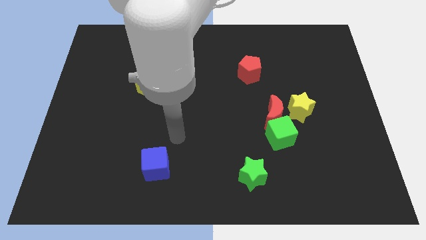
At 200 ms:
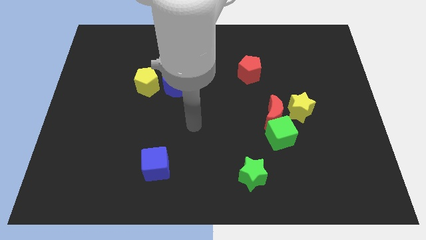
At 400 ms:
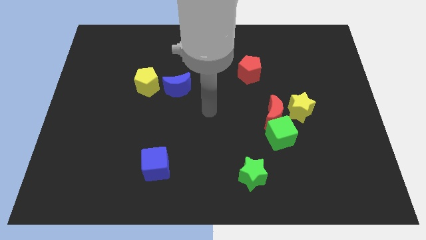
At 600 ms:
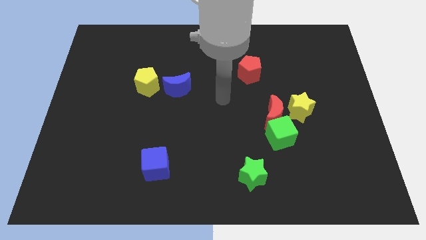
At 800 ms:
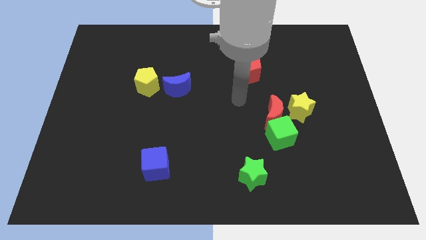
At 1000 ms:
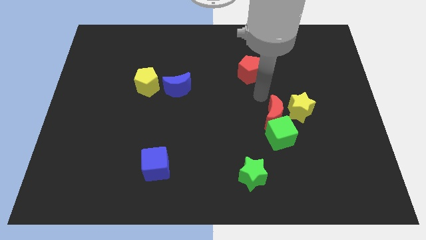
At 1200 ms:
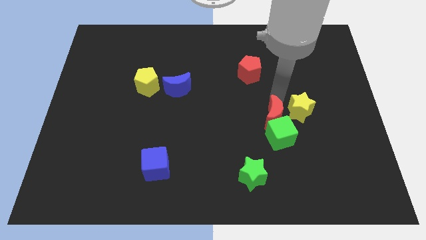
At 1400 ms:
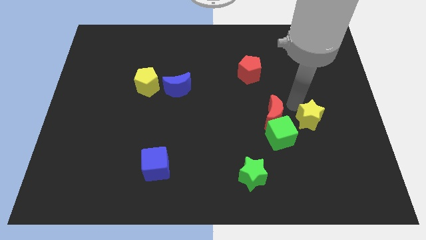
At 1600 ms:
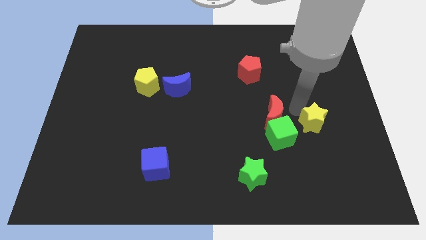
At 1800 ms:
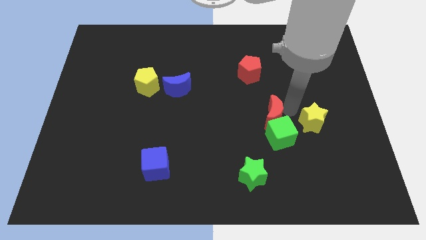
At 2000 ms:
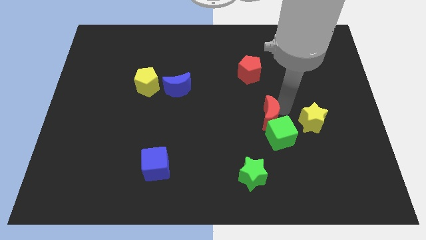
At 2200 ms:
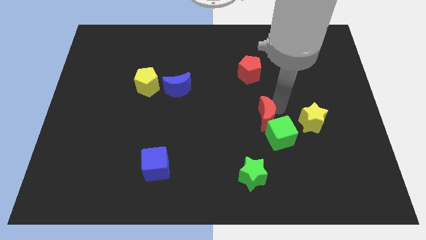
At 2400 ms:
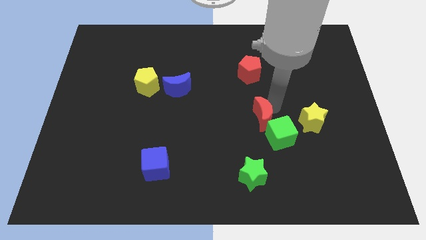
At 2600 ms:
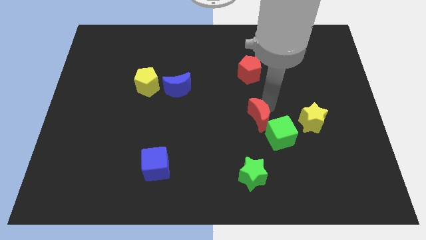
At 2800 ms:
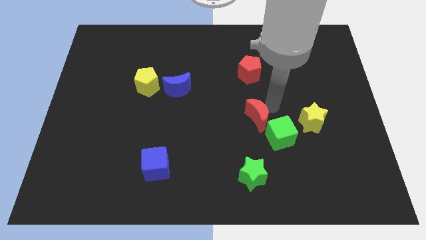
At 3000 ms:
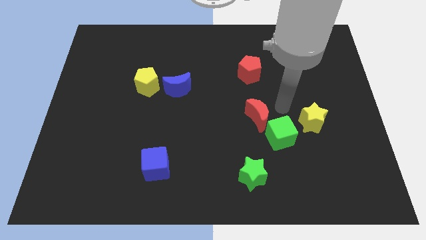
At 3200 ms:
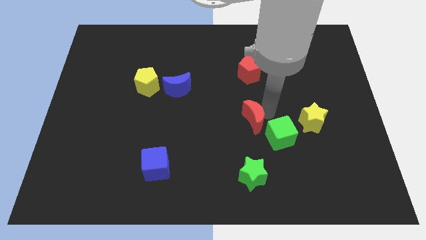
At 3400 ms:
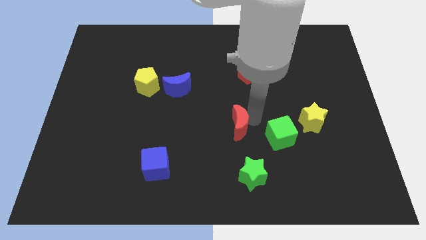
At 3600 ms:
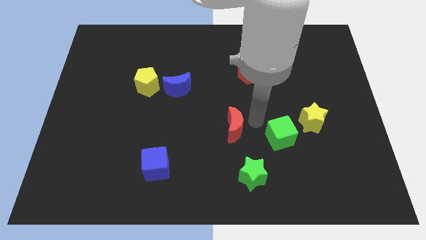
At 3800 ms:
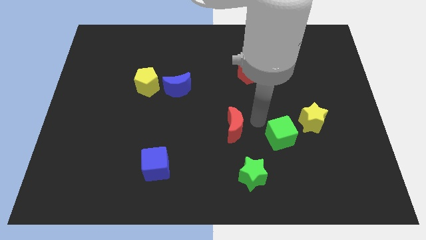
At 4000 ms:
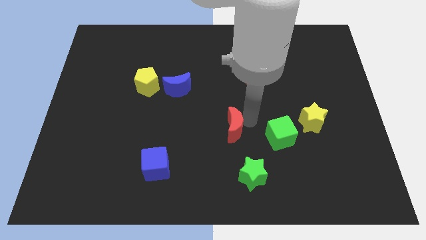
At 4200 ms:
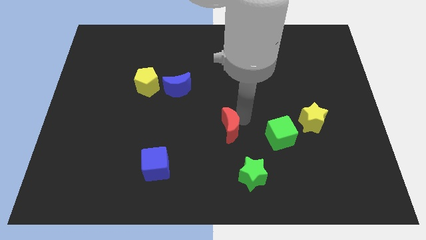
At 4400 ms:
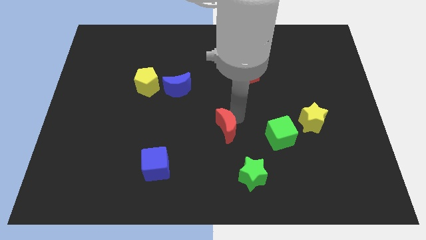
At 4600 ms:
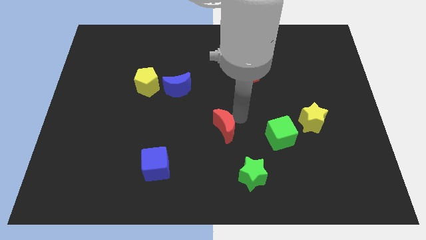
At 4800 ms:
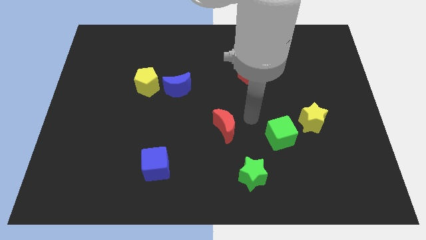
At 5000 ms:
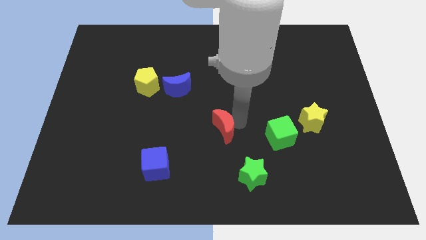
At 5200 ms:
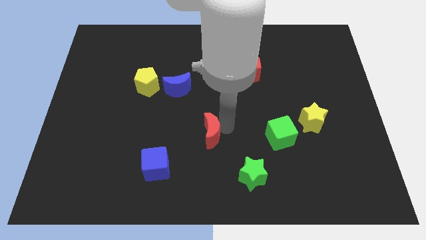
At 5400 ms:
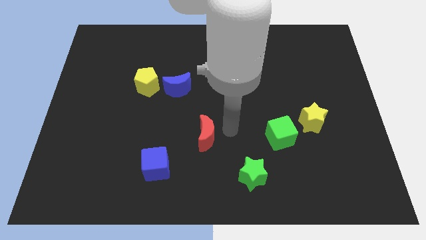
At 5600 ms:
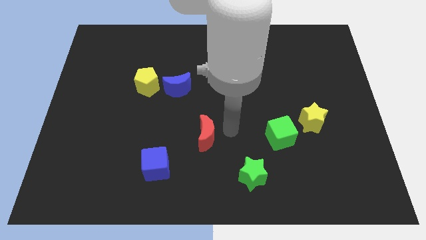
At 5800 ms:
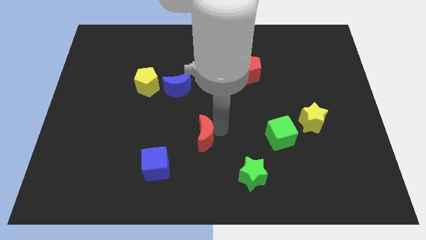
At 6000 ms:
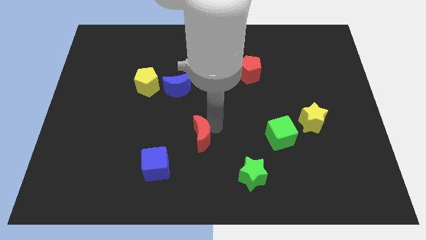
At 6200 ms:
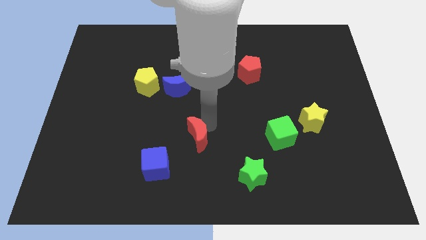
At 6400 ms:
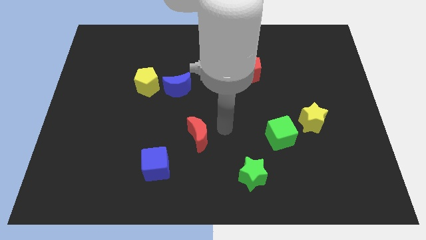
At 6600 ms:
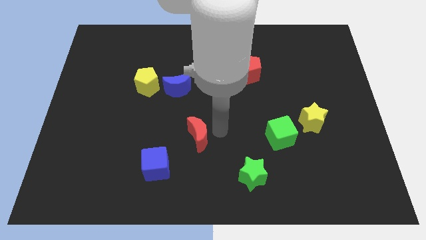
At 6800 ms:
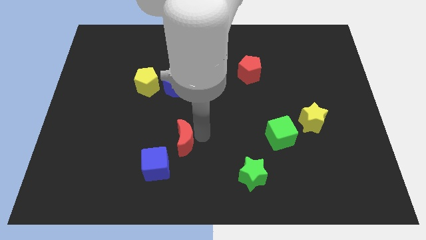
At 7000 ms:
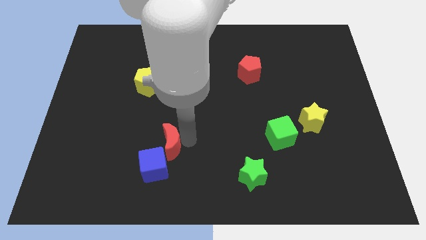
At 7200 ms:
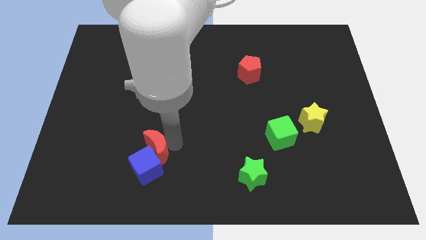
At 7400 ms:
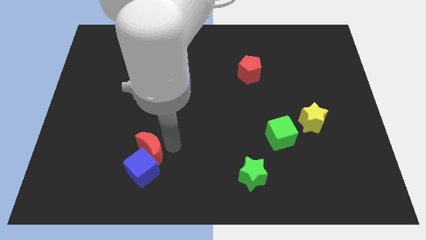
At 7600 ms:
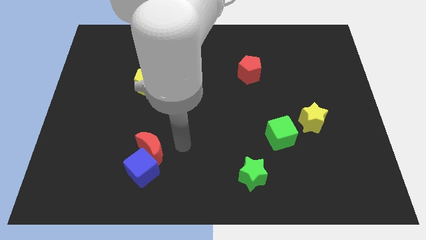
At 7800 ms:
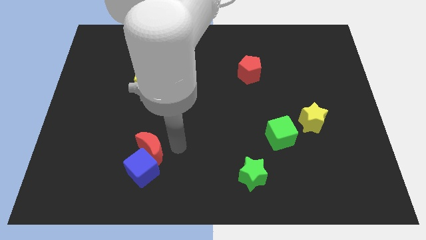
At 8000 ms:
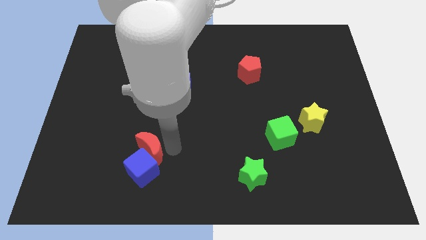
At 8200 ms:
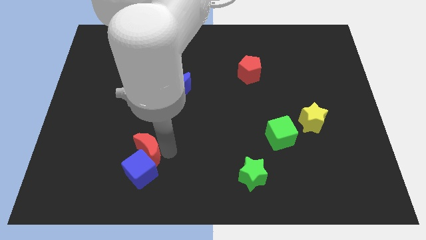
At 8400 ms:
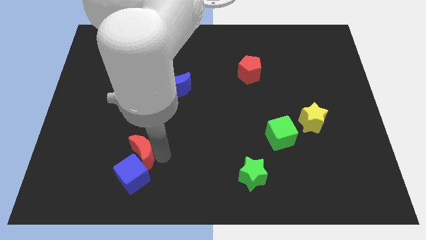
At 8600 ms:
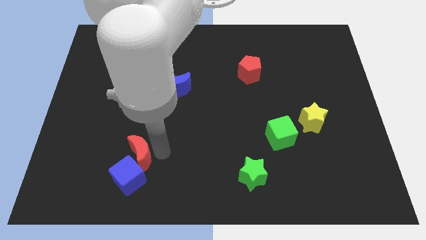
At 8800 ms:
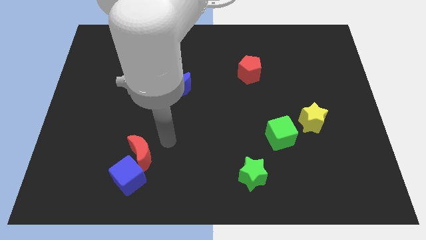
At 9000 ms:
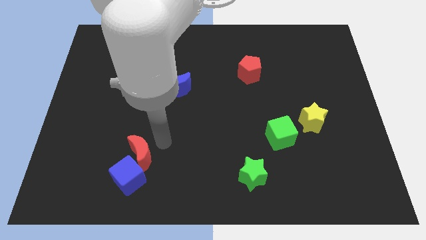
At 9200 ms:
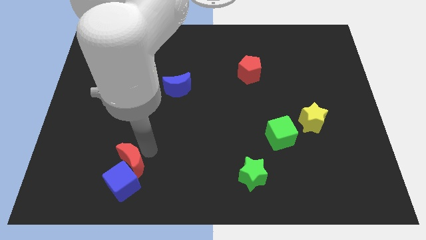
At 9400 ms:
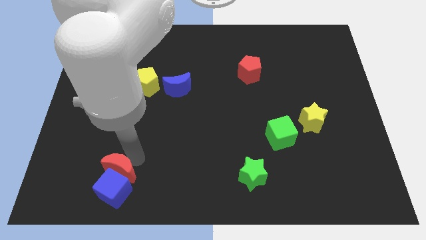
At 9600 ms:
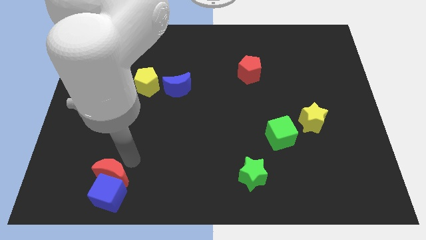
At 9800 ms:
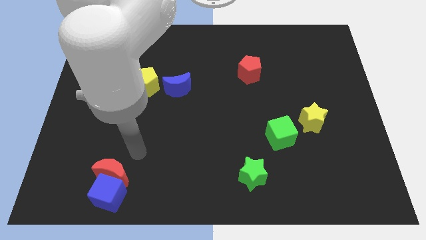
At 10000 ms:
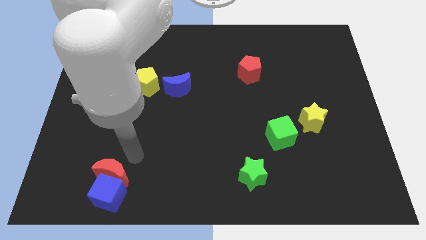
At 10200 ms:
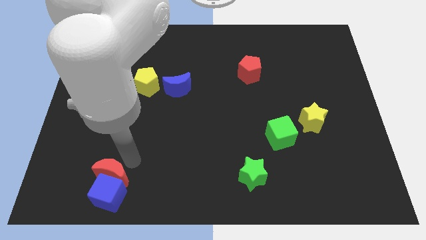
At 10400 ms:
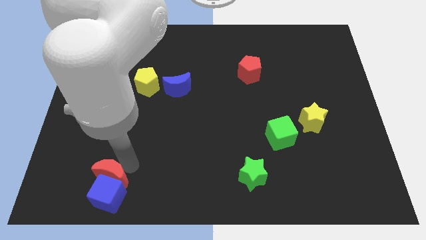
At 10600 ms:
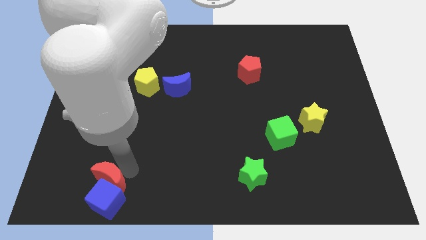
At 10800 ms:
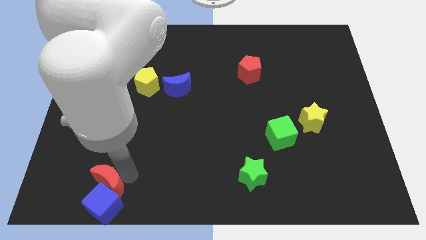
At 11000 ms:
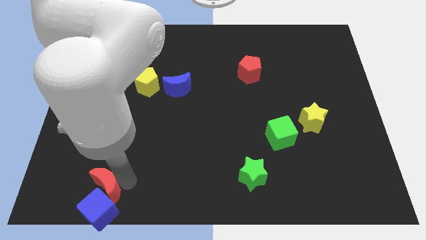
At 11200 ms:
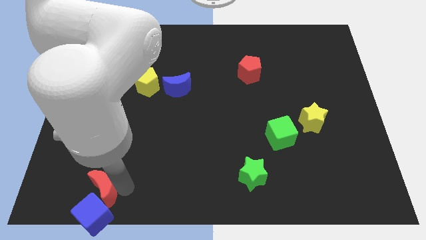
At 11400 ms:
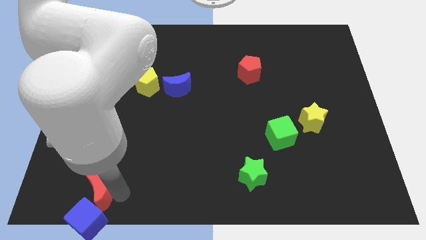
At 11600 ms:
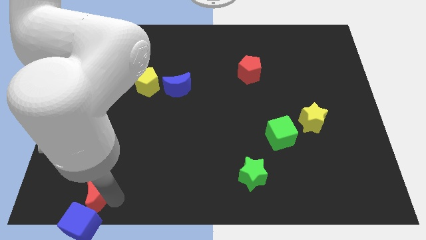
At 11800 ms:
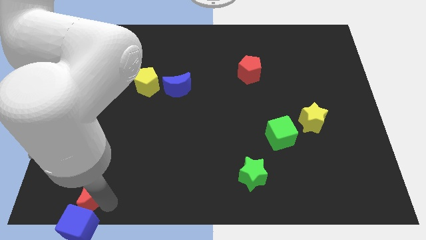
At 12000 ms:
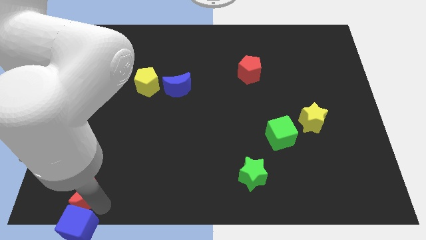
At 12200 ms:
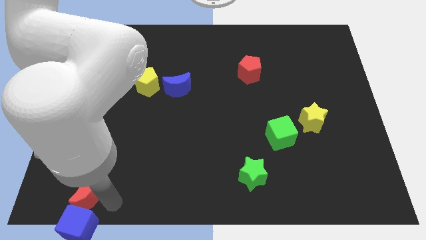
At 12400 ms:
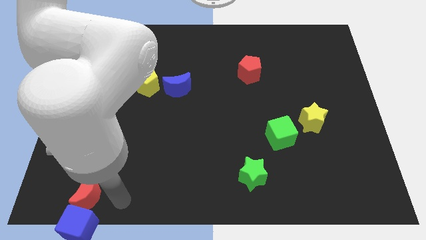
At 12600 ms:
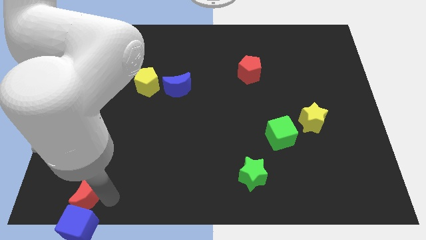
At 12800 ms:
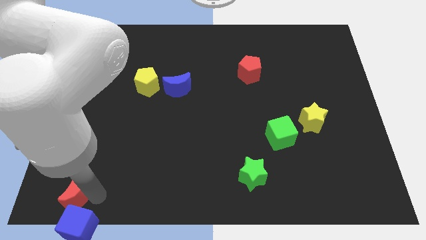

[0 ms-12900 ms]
slide the red moon to the lower left corner
